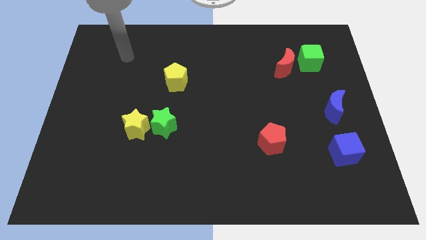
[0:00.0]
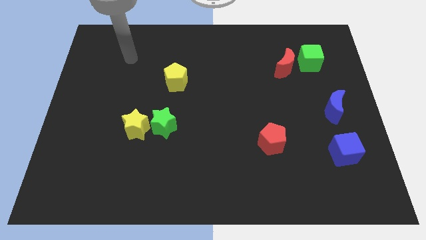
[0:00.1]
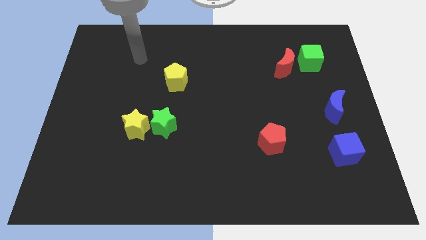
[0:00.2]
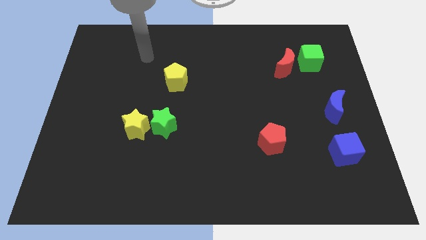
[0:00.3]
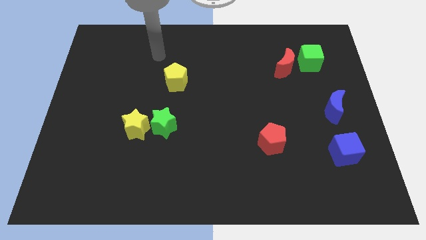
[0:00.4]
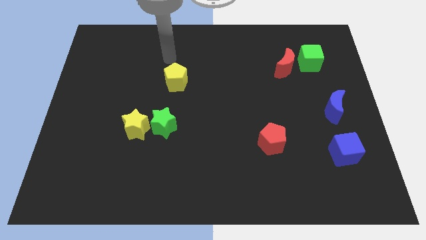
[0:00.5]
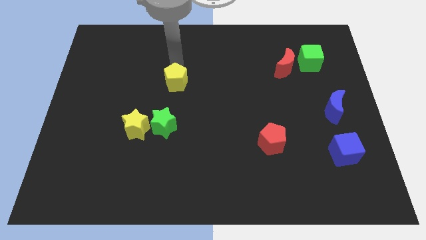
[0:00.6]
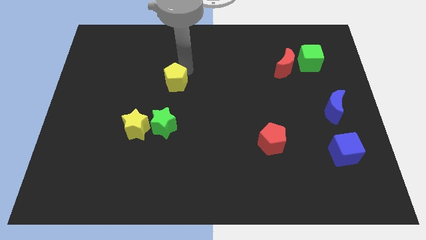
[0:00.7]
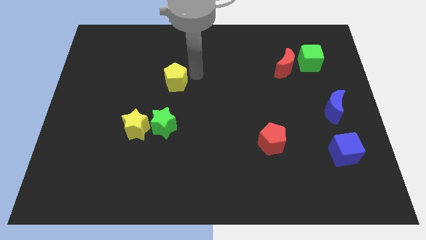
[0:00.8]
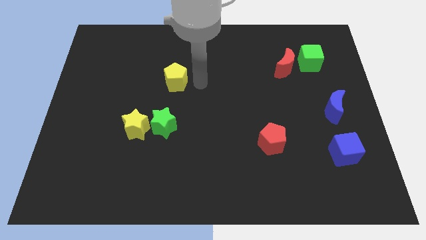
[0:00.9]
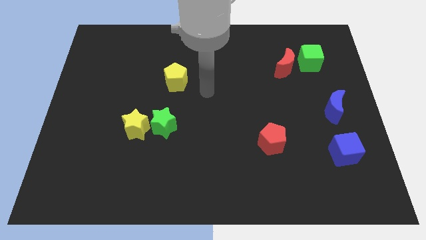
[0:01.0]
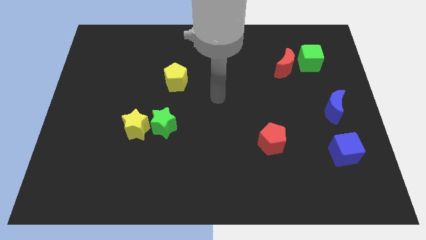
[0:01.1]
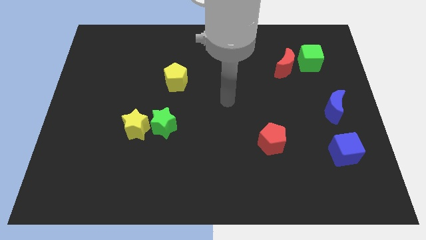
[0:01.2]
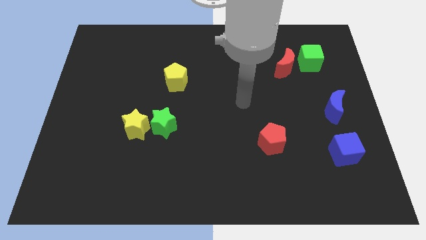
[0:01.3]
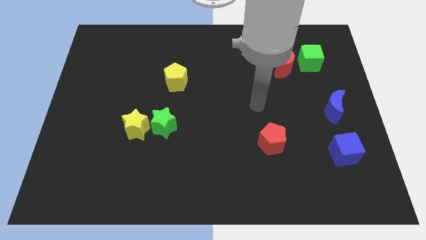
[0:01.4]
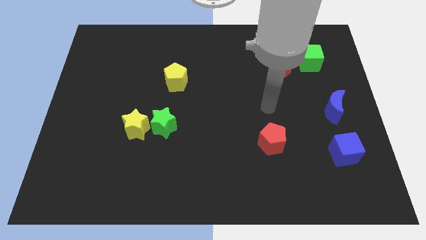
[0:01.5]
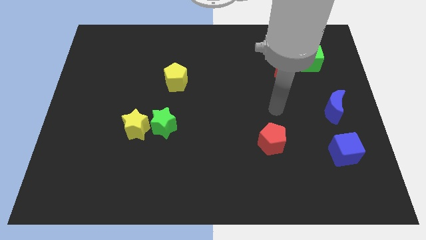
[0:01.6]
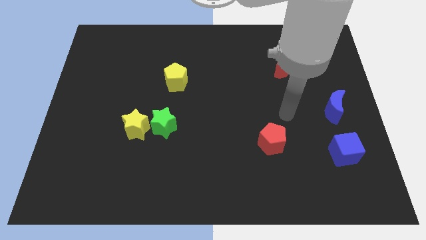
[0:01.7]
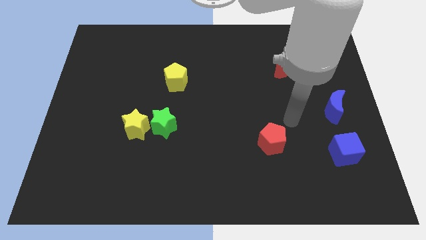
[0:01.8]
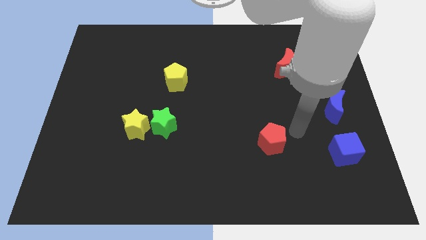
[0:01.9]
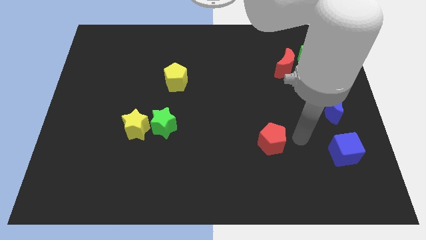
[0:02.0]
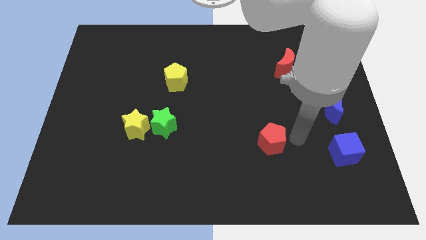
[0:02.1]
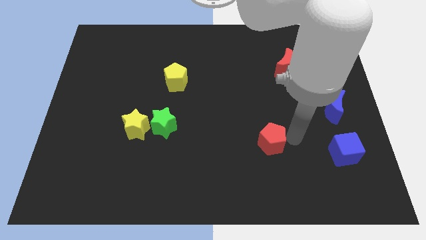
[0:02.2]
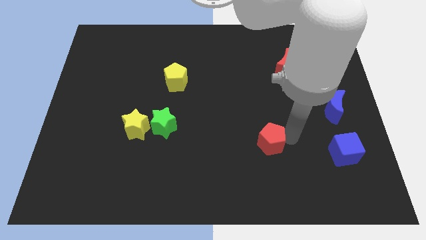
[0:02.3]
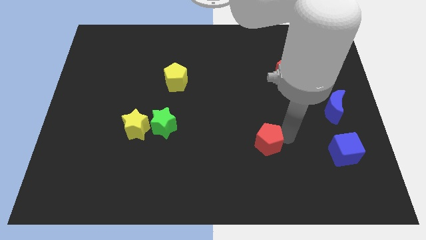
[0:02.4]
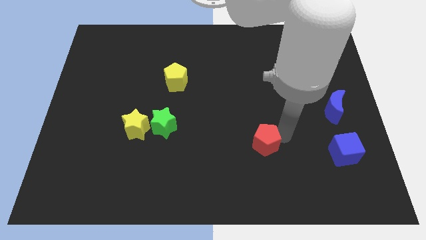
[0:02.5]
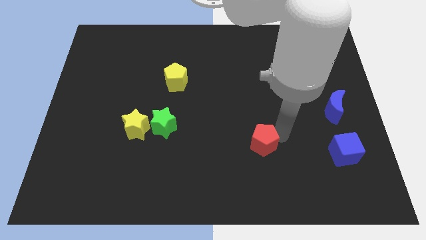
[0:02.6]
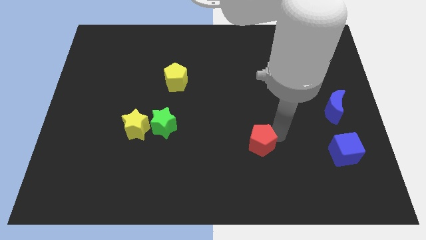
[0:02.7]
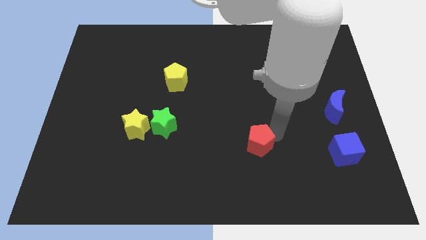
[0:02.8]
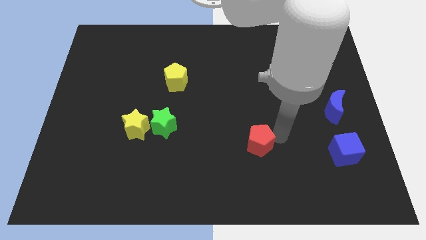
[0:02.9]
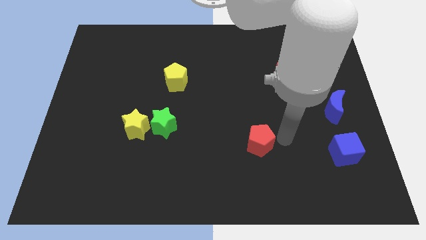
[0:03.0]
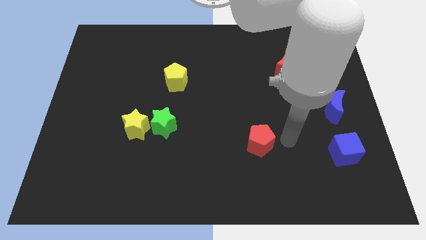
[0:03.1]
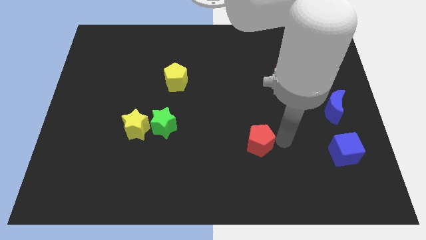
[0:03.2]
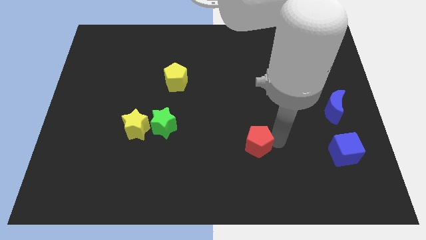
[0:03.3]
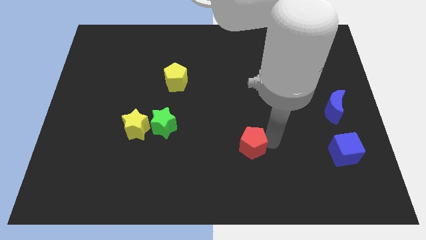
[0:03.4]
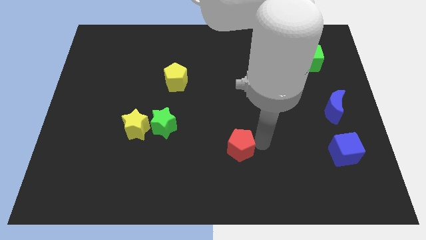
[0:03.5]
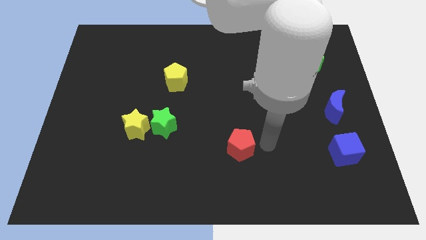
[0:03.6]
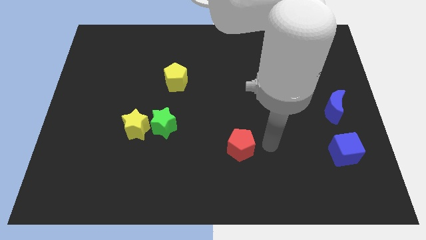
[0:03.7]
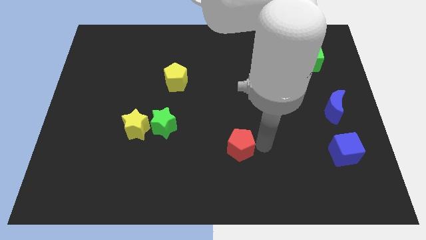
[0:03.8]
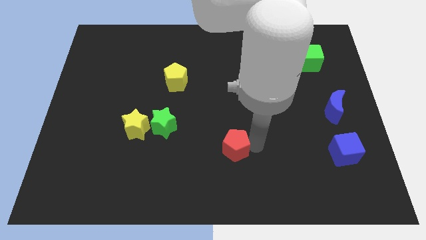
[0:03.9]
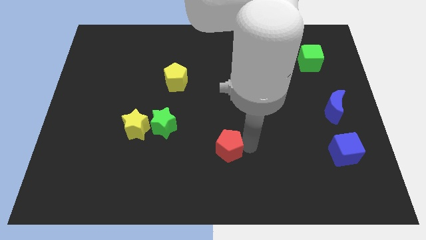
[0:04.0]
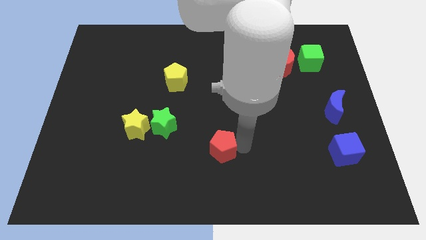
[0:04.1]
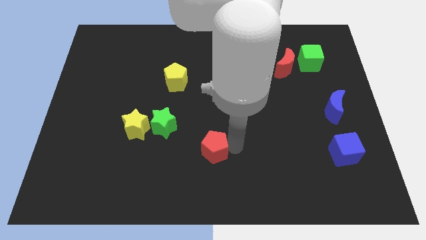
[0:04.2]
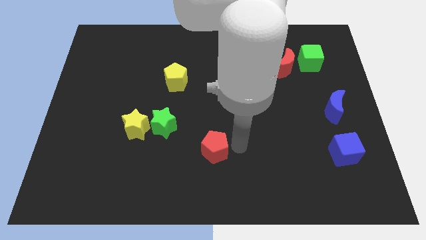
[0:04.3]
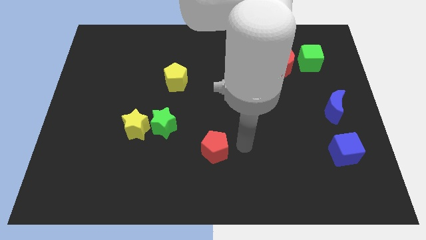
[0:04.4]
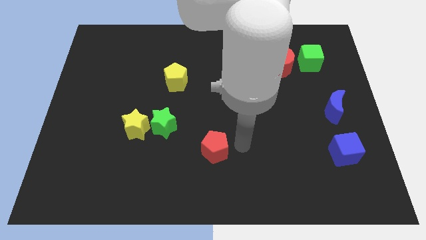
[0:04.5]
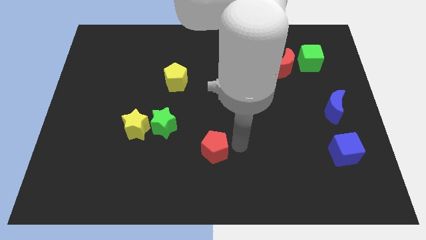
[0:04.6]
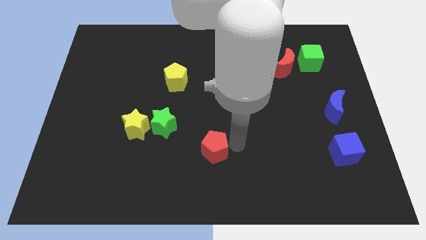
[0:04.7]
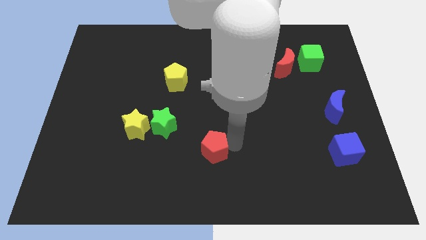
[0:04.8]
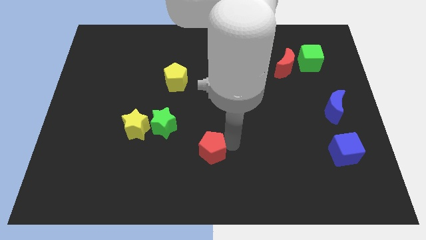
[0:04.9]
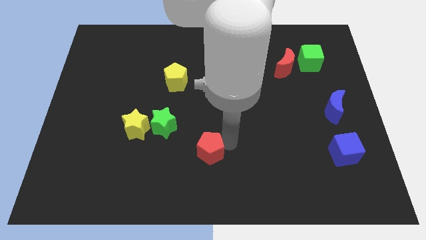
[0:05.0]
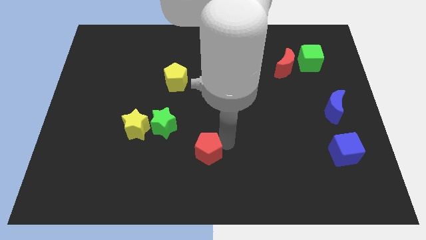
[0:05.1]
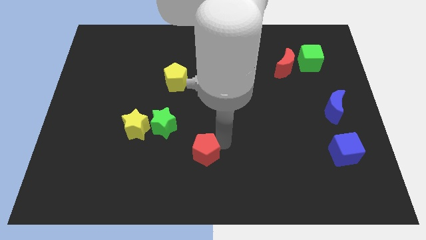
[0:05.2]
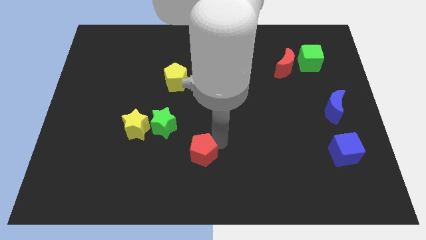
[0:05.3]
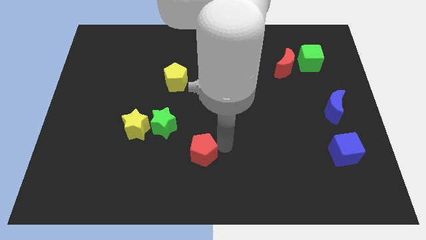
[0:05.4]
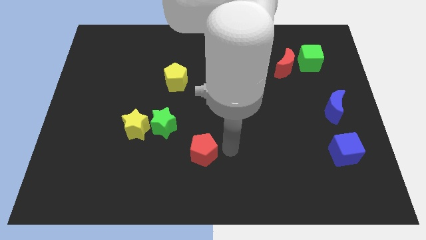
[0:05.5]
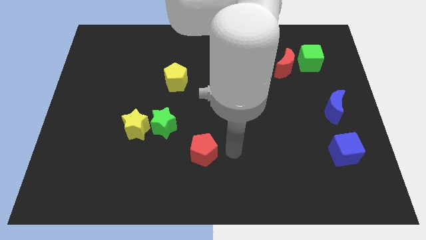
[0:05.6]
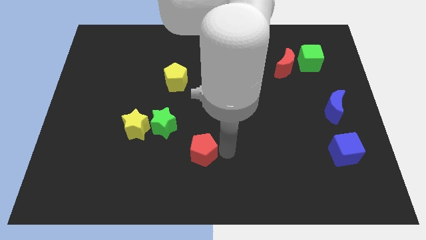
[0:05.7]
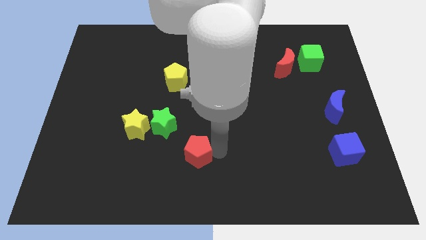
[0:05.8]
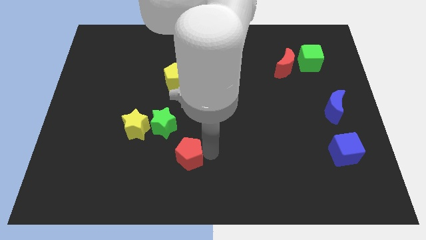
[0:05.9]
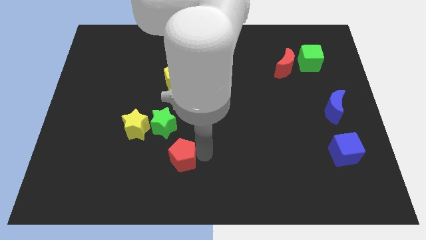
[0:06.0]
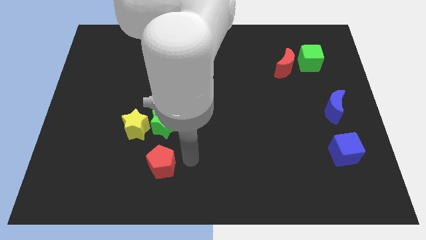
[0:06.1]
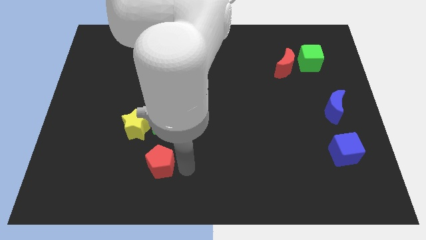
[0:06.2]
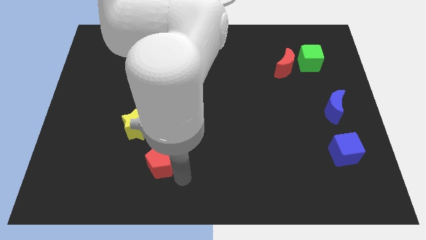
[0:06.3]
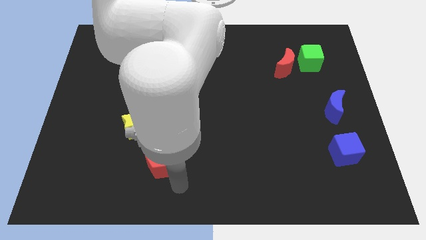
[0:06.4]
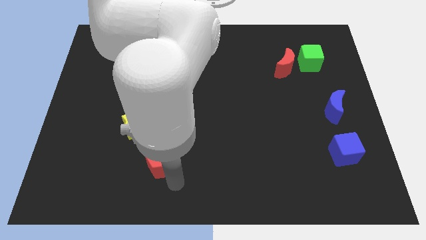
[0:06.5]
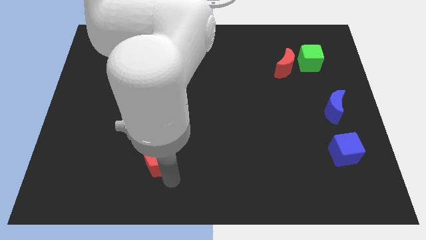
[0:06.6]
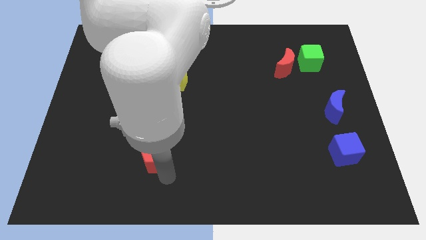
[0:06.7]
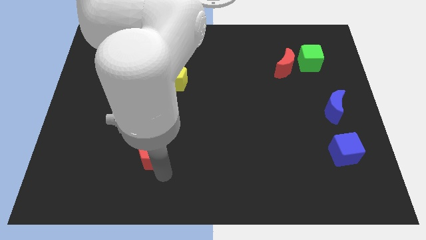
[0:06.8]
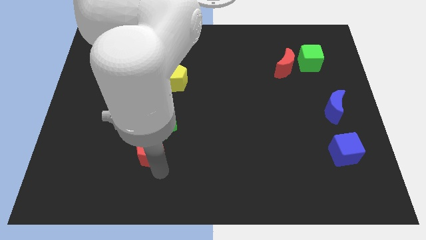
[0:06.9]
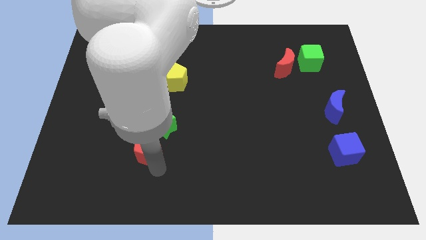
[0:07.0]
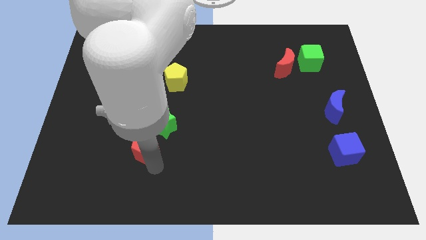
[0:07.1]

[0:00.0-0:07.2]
move the red pentagon towards the yellow star
